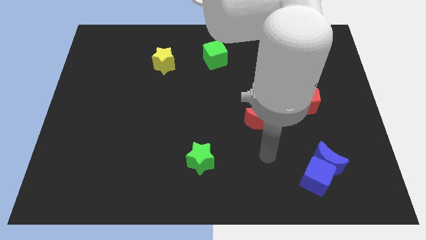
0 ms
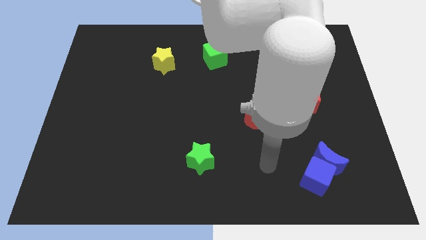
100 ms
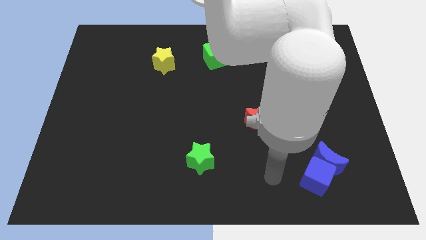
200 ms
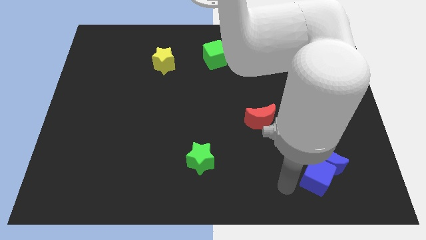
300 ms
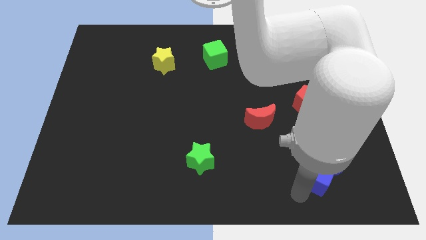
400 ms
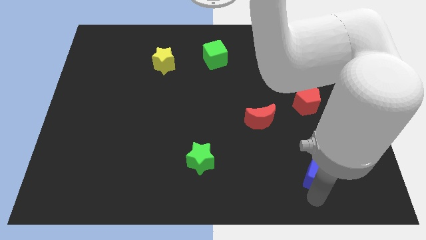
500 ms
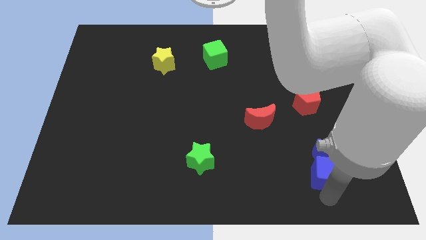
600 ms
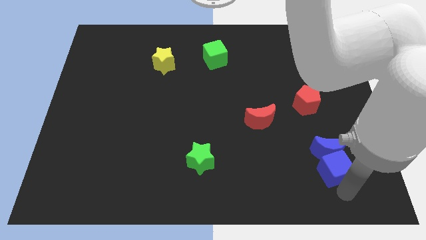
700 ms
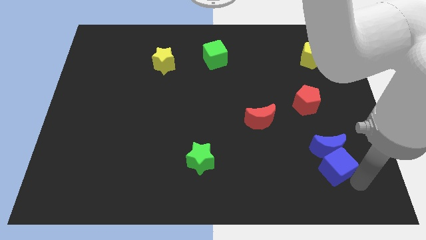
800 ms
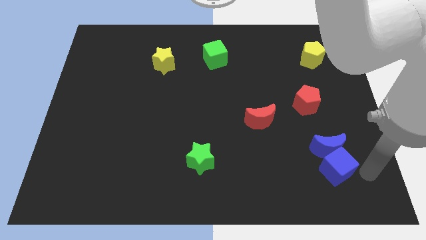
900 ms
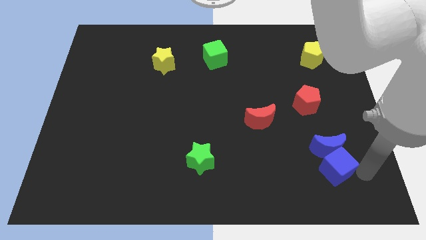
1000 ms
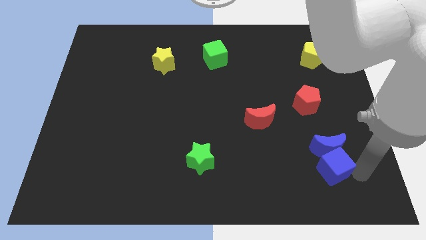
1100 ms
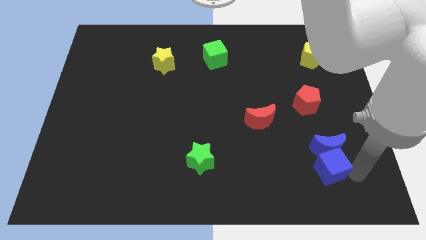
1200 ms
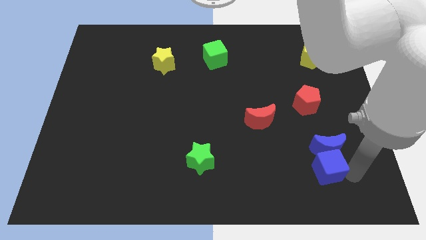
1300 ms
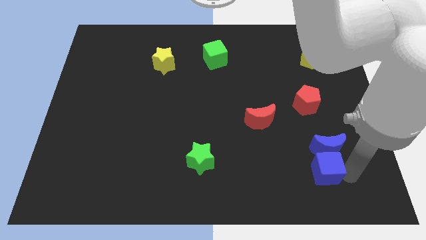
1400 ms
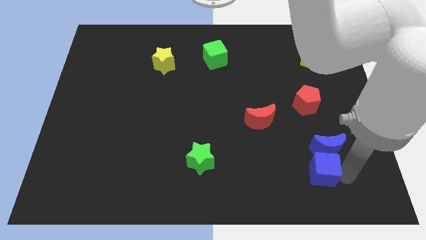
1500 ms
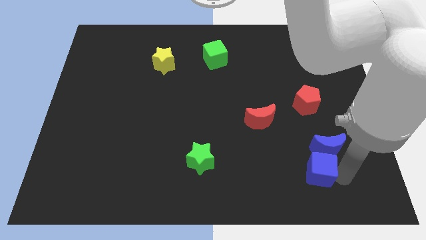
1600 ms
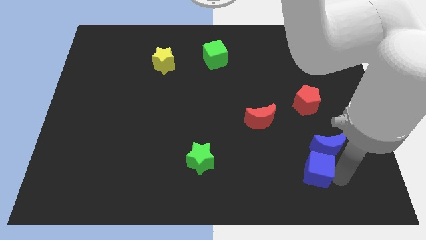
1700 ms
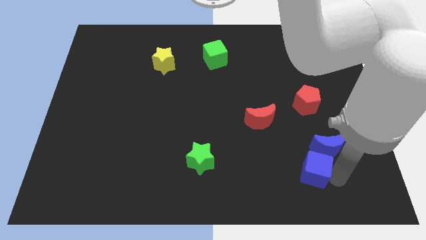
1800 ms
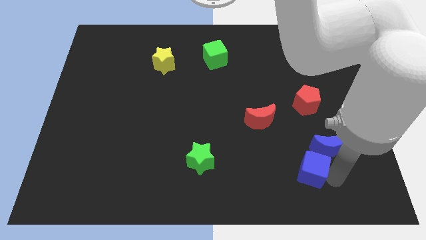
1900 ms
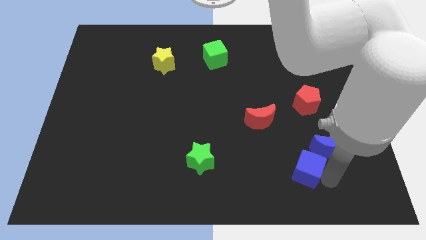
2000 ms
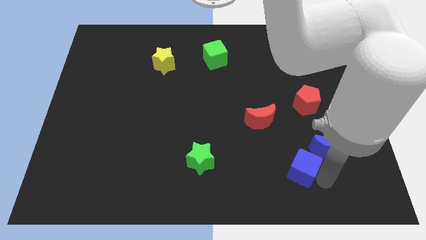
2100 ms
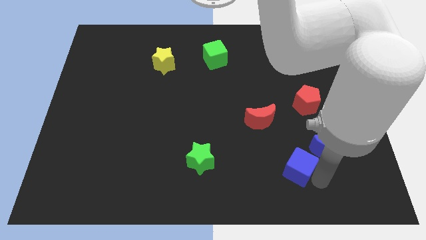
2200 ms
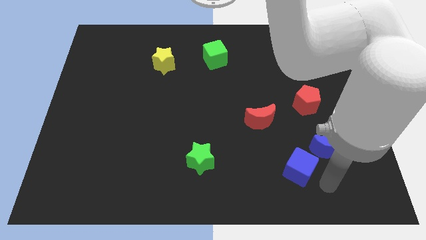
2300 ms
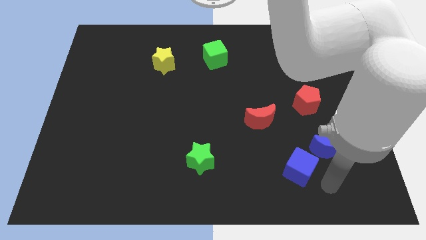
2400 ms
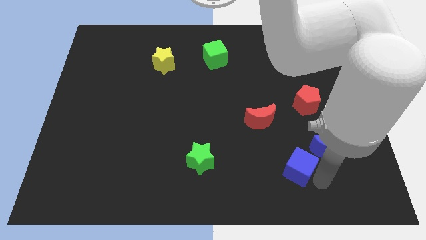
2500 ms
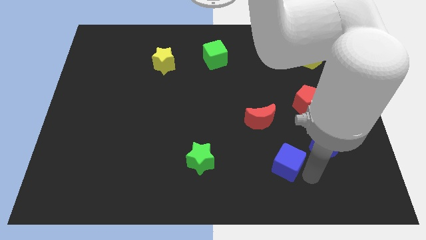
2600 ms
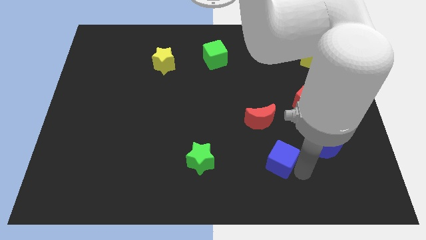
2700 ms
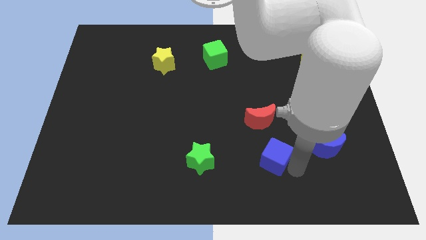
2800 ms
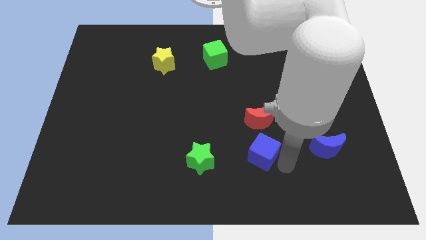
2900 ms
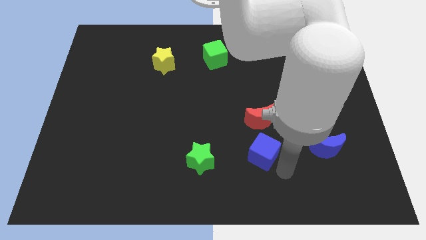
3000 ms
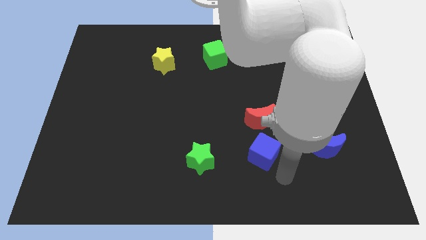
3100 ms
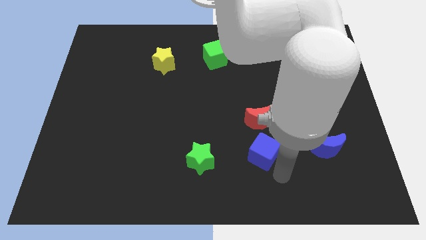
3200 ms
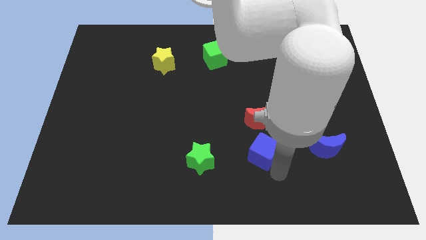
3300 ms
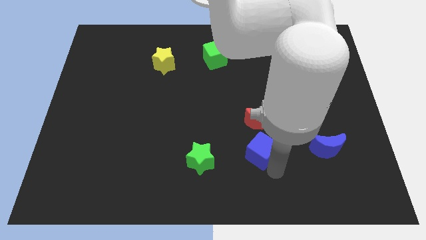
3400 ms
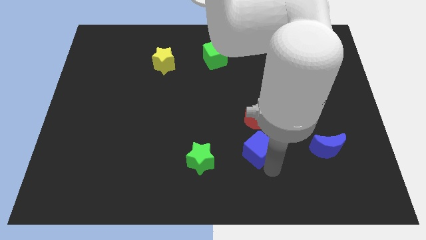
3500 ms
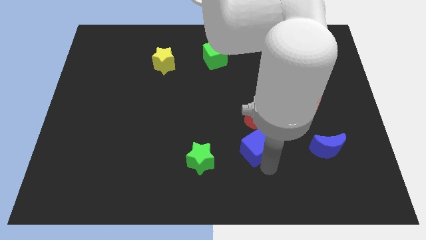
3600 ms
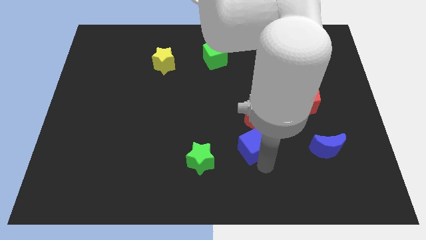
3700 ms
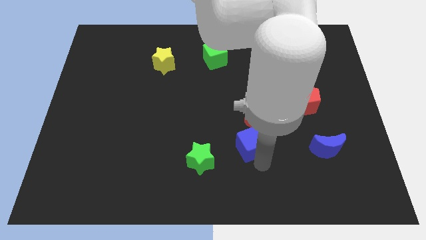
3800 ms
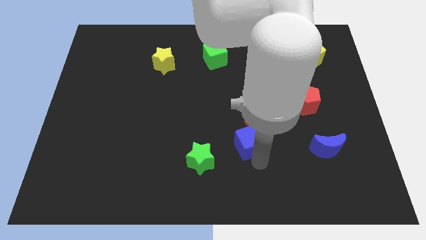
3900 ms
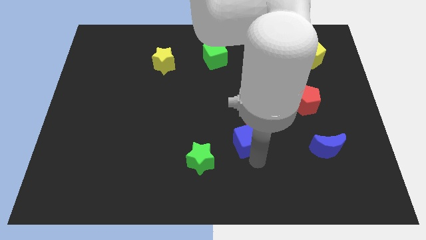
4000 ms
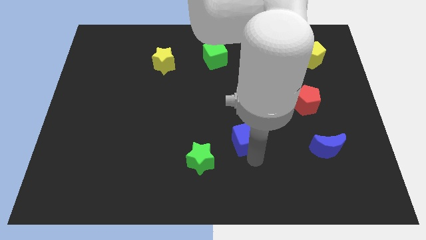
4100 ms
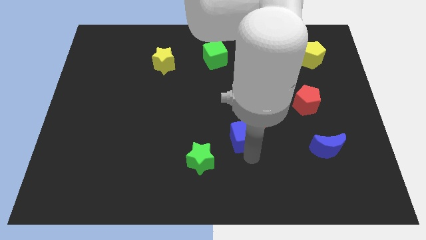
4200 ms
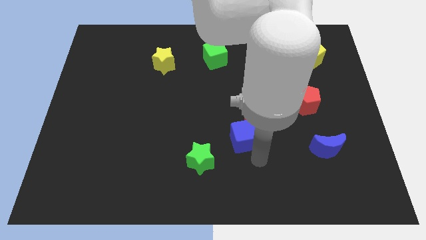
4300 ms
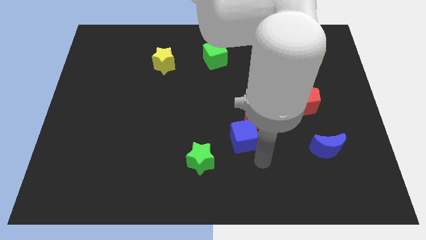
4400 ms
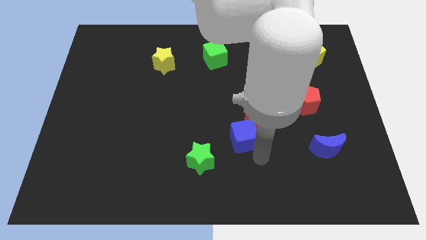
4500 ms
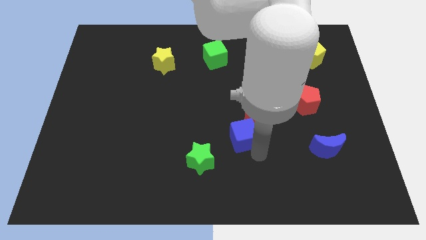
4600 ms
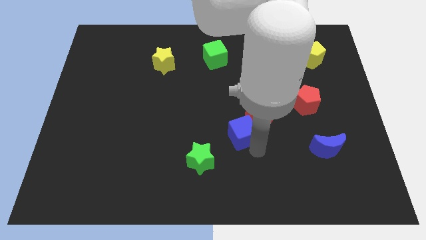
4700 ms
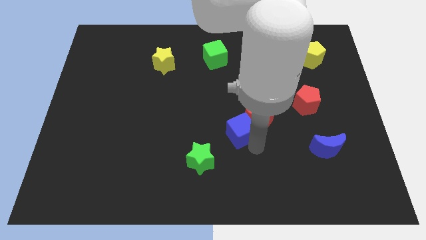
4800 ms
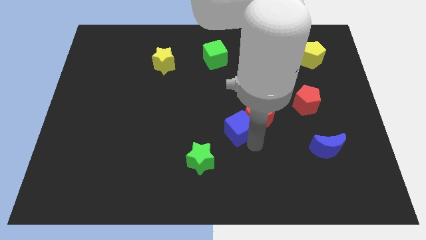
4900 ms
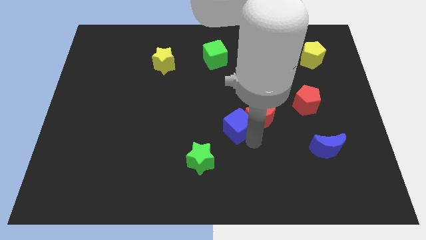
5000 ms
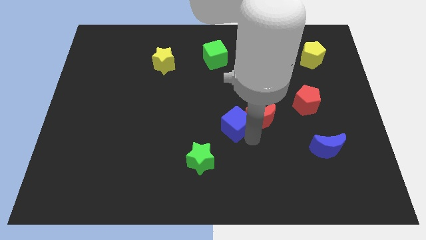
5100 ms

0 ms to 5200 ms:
push the blue cube up and then to the left

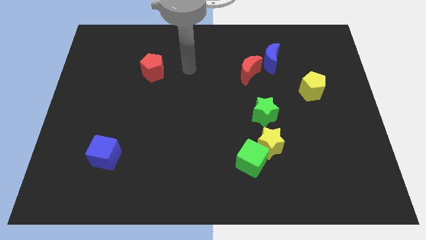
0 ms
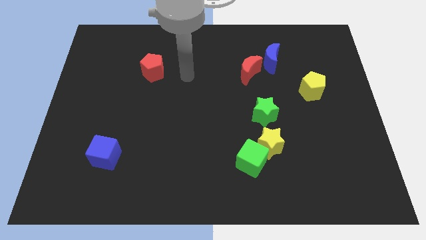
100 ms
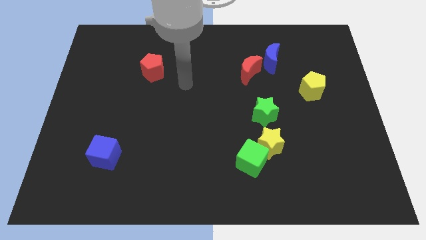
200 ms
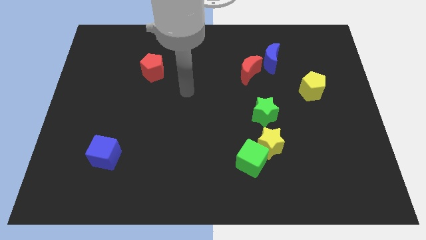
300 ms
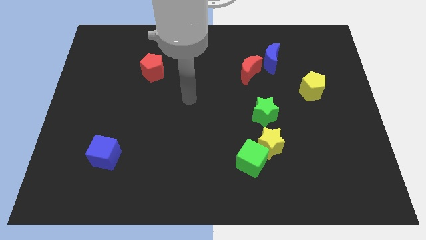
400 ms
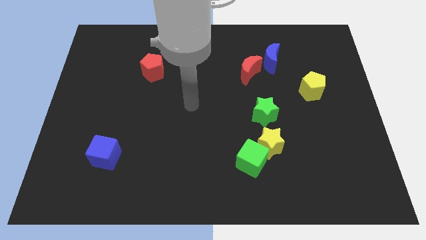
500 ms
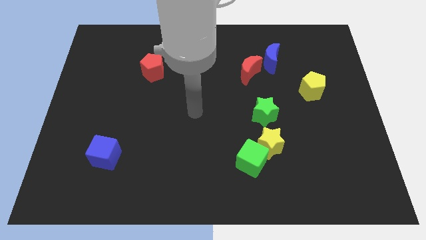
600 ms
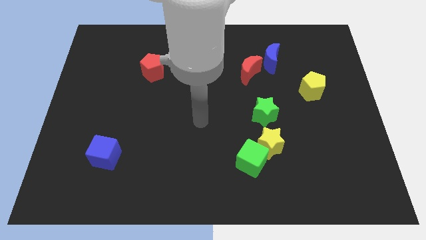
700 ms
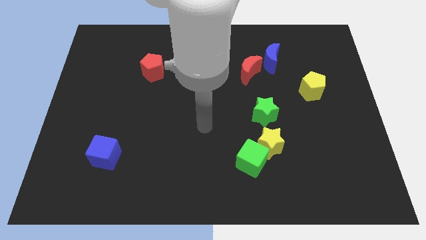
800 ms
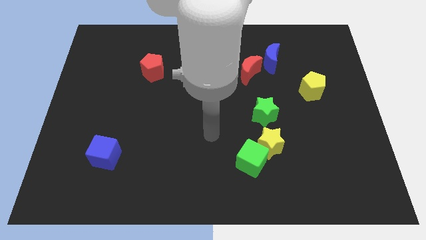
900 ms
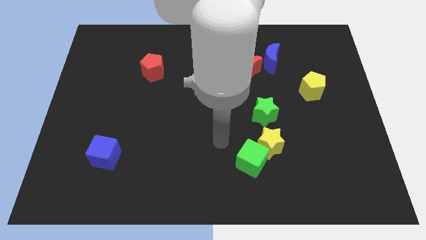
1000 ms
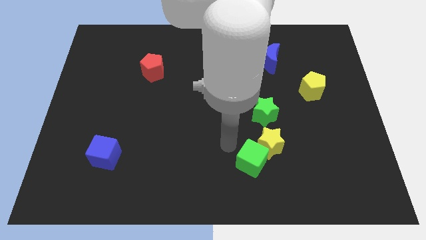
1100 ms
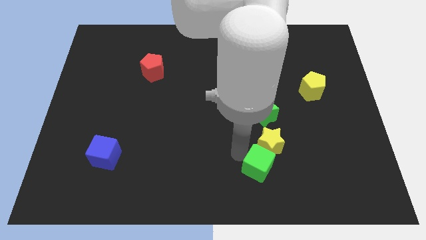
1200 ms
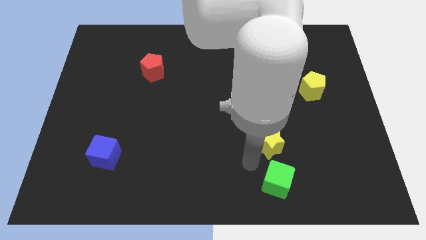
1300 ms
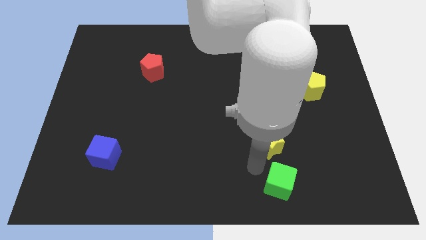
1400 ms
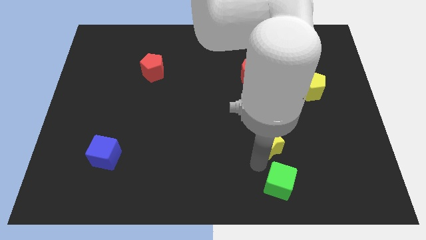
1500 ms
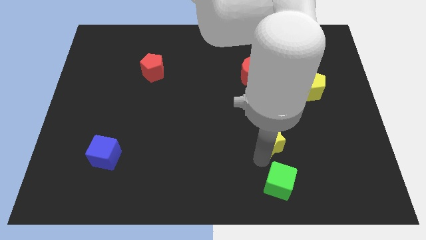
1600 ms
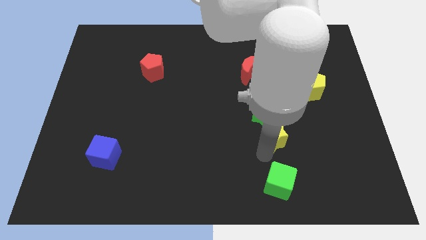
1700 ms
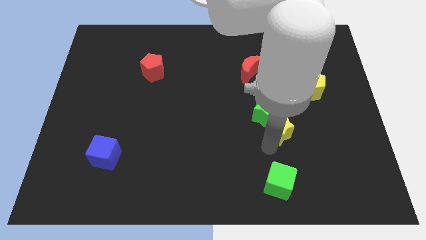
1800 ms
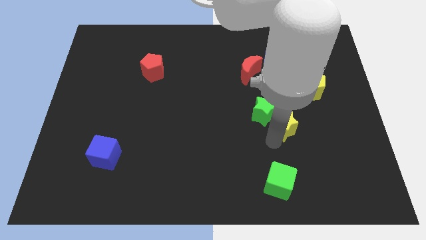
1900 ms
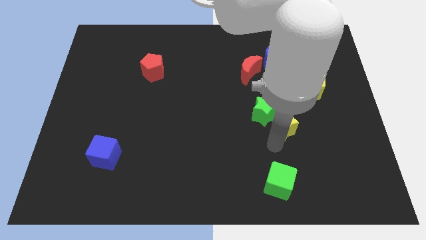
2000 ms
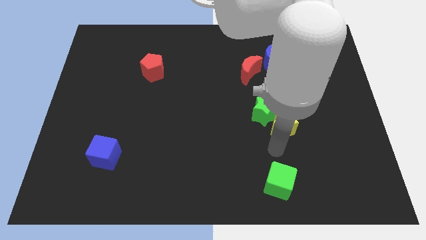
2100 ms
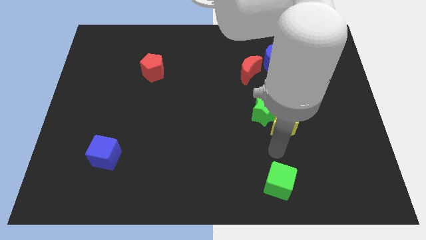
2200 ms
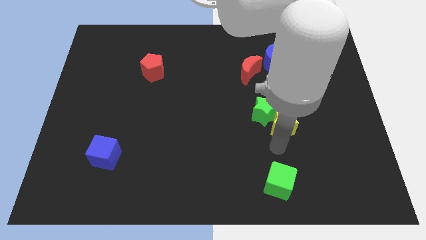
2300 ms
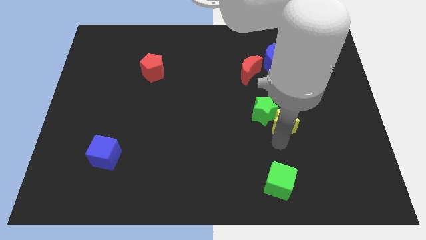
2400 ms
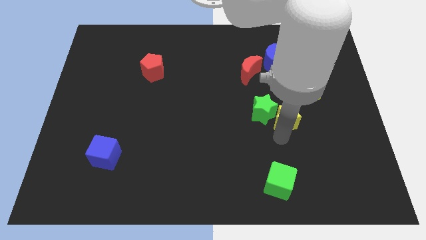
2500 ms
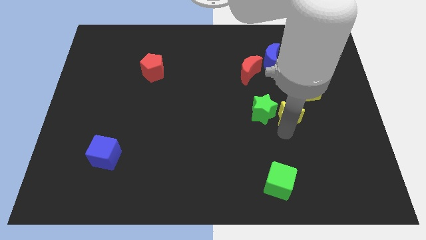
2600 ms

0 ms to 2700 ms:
slightly slide the yellow star upwards
